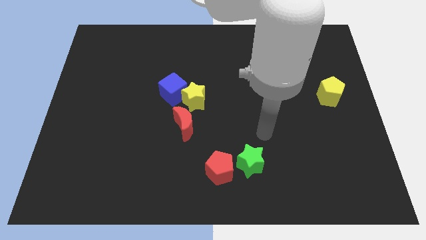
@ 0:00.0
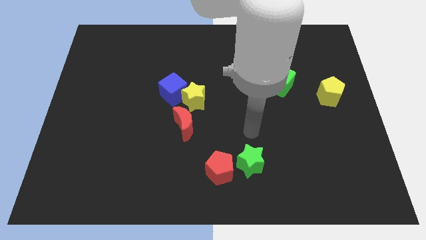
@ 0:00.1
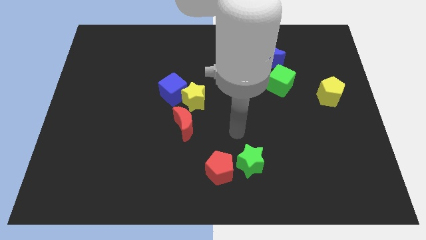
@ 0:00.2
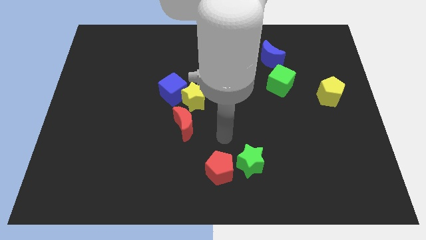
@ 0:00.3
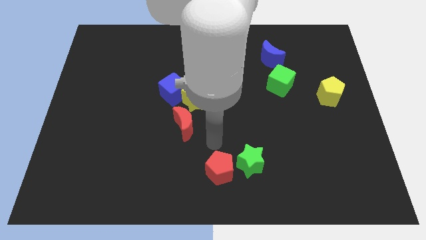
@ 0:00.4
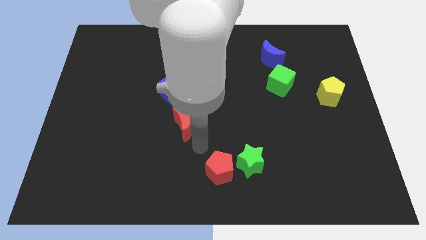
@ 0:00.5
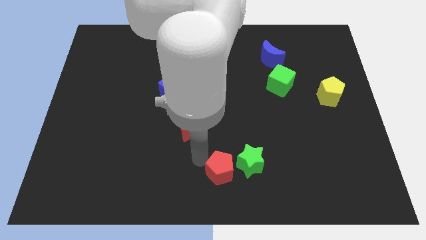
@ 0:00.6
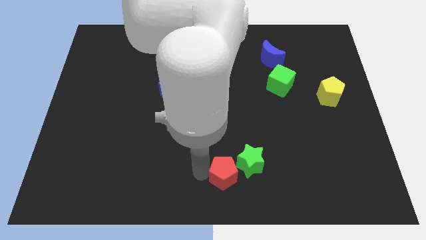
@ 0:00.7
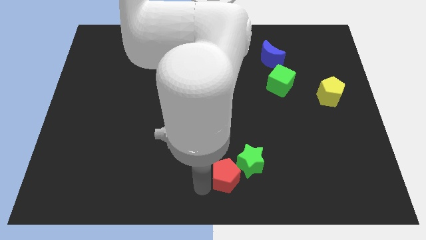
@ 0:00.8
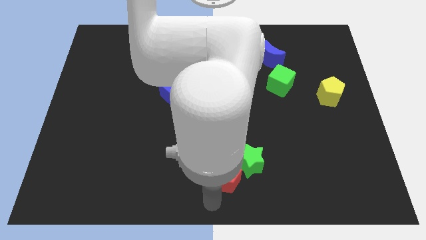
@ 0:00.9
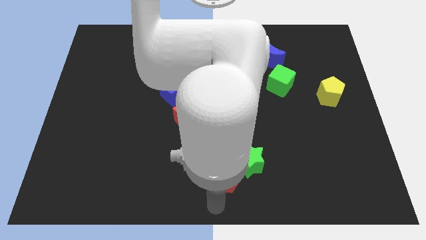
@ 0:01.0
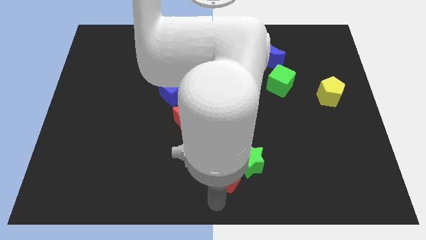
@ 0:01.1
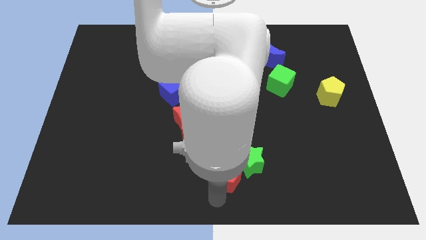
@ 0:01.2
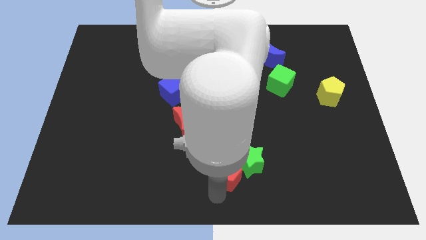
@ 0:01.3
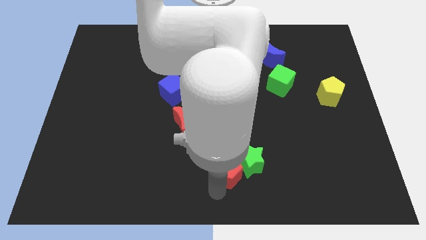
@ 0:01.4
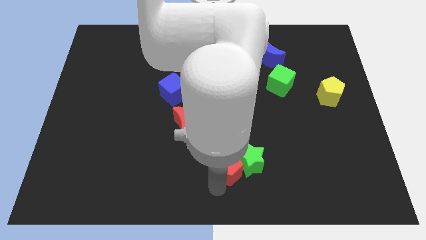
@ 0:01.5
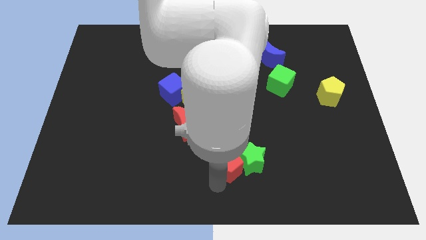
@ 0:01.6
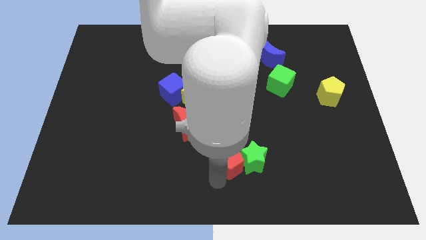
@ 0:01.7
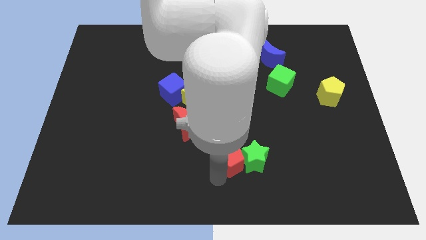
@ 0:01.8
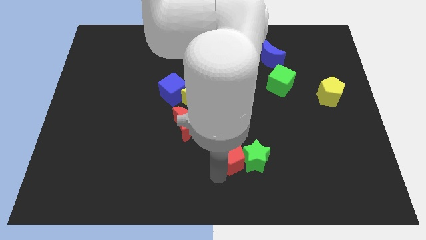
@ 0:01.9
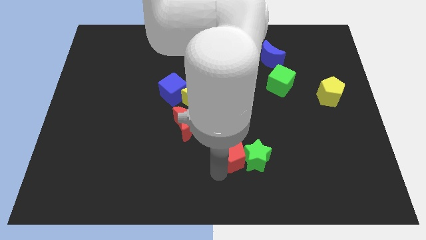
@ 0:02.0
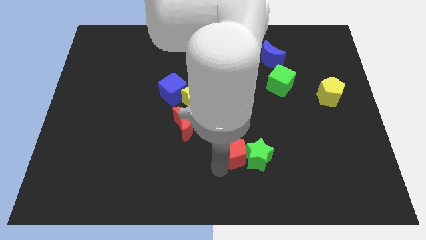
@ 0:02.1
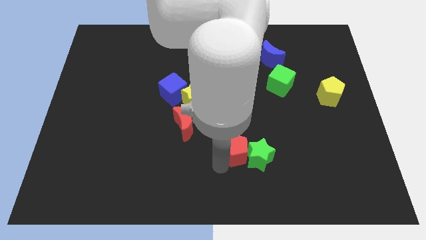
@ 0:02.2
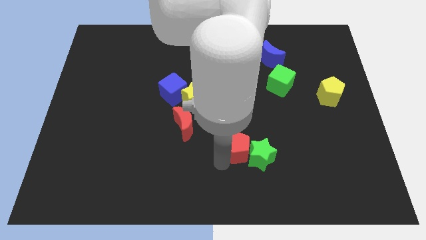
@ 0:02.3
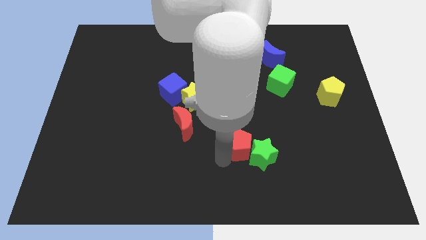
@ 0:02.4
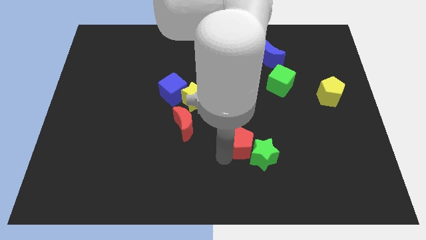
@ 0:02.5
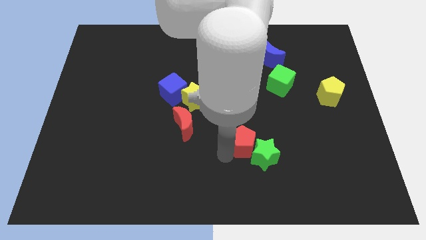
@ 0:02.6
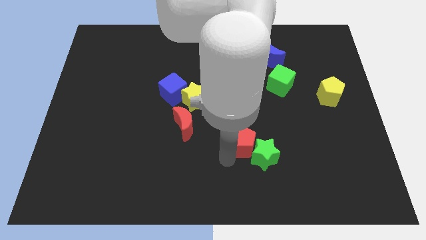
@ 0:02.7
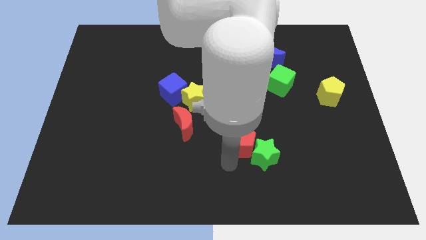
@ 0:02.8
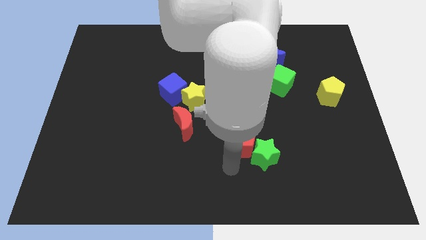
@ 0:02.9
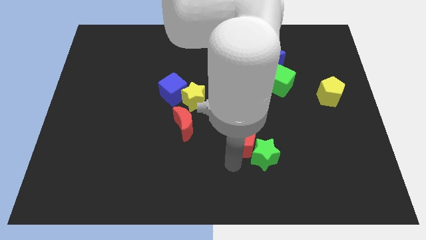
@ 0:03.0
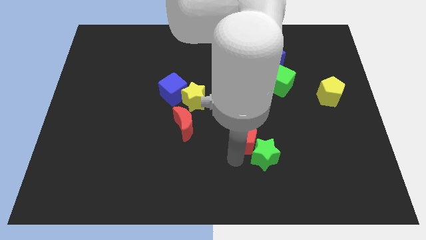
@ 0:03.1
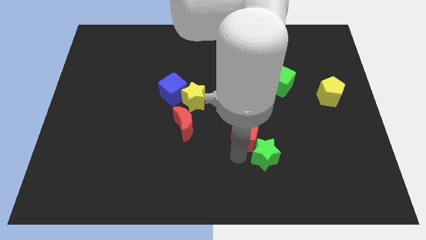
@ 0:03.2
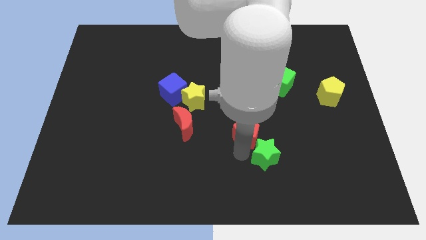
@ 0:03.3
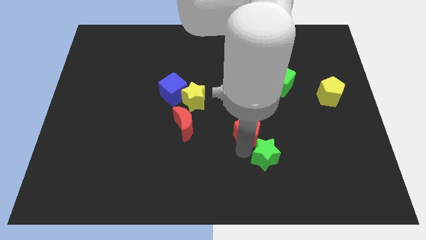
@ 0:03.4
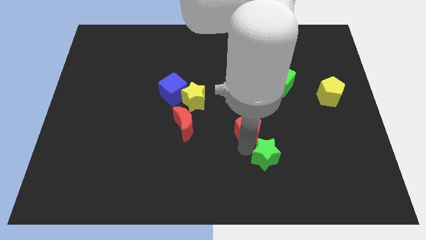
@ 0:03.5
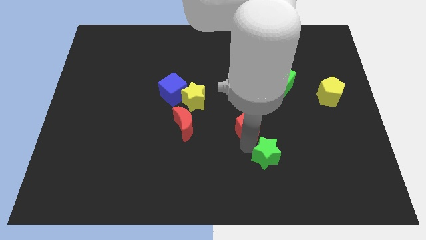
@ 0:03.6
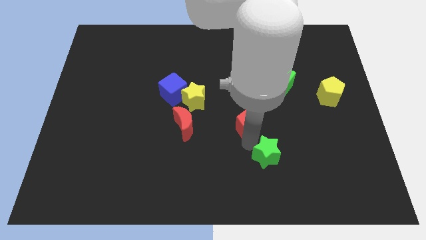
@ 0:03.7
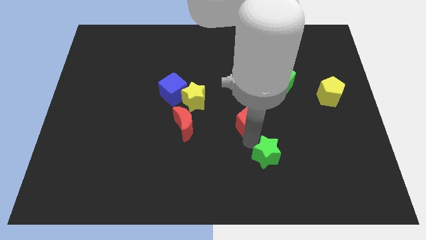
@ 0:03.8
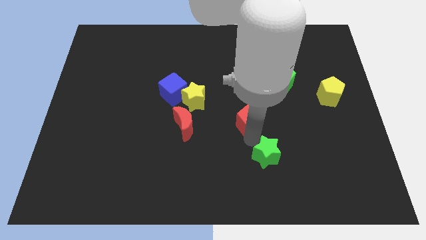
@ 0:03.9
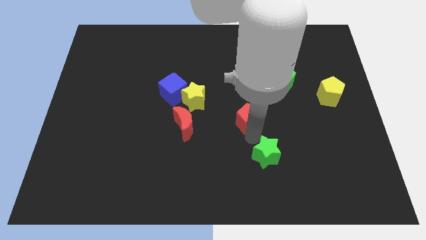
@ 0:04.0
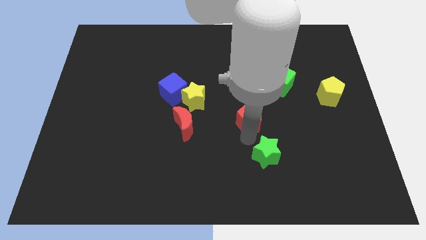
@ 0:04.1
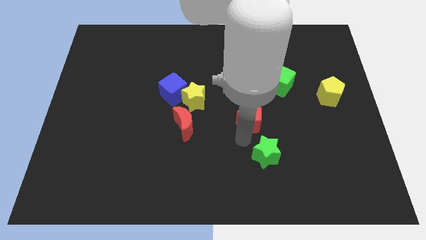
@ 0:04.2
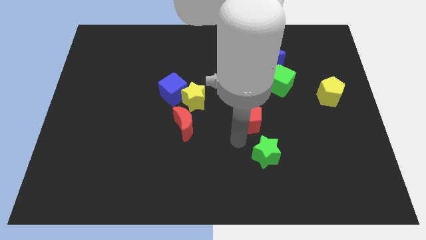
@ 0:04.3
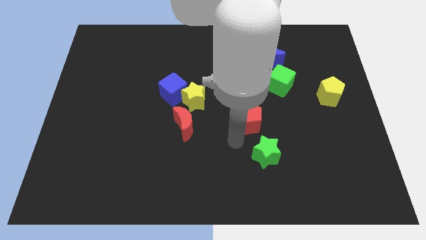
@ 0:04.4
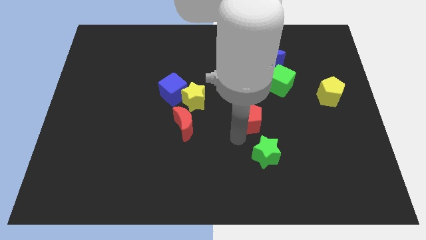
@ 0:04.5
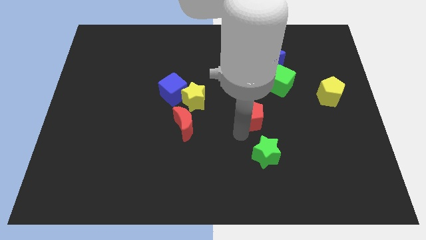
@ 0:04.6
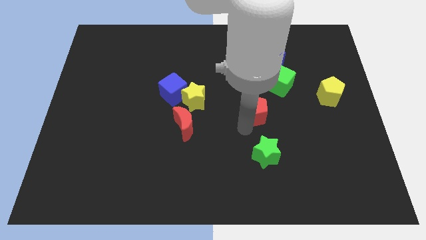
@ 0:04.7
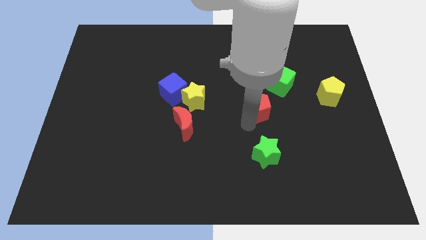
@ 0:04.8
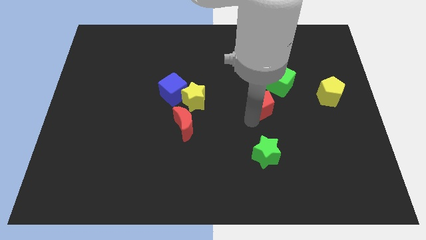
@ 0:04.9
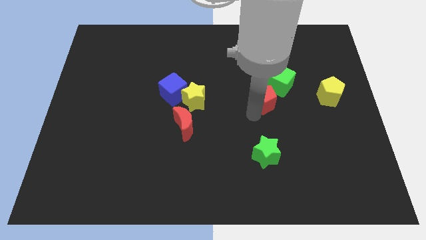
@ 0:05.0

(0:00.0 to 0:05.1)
put the red pentagon to the left of the yellow pentagon

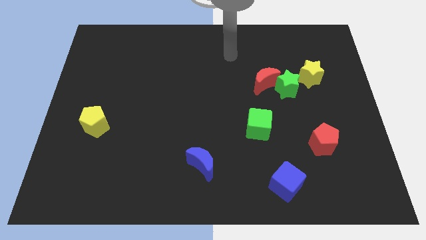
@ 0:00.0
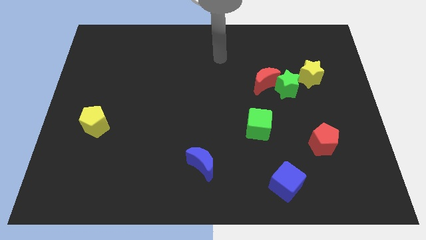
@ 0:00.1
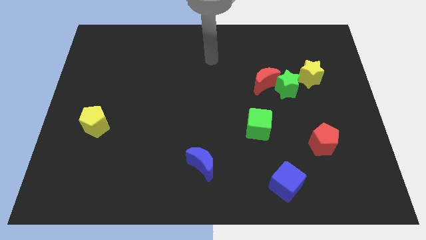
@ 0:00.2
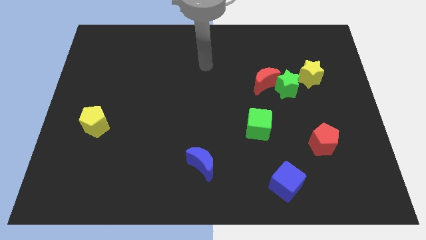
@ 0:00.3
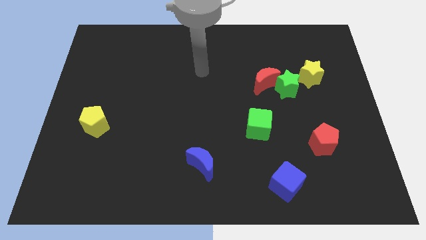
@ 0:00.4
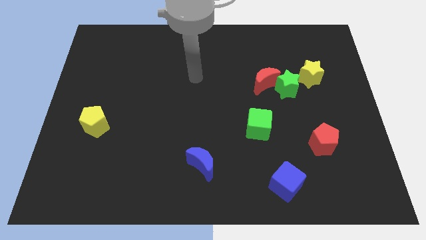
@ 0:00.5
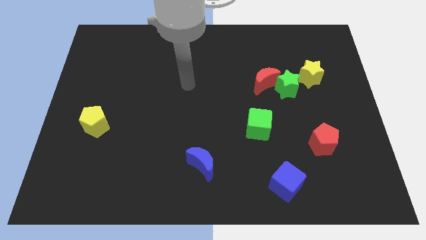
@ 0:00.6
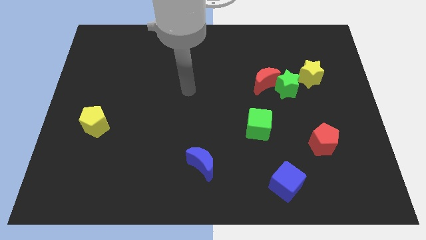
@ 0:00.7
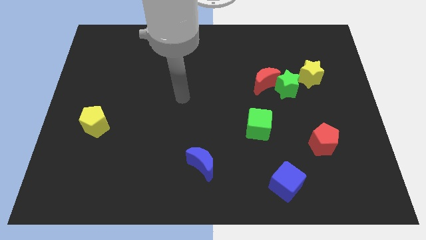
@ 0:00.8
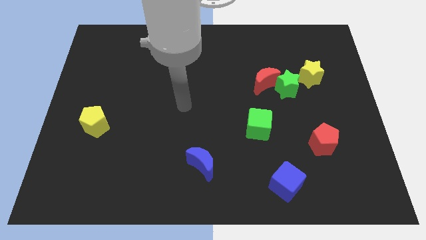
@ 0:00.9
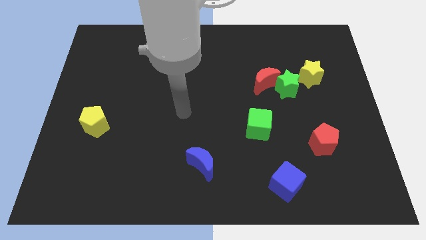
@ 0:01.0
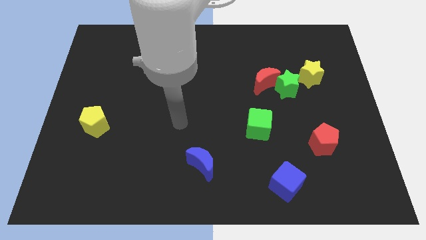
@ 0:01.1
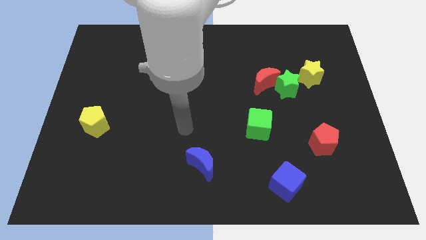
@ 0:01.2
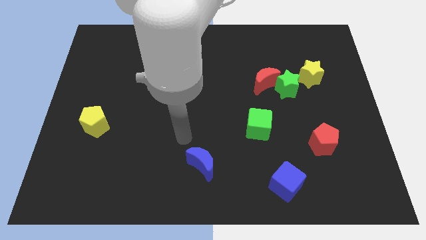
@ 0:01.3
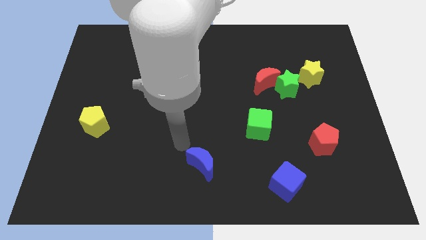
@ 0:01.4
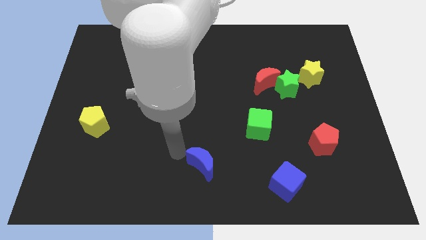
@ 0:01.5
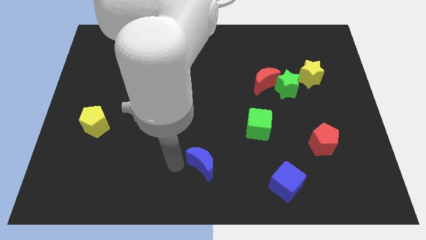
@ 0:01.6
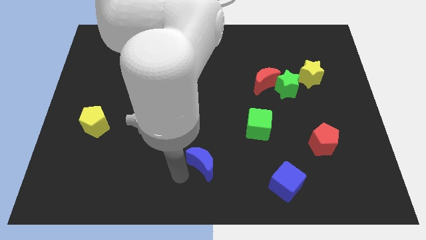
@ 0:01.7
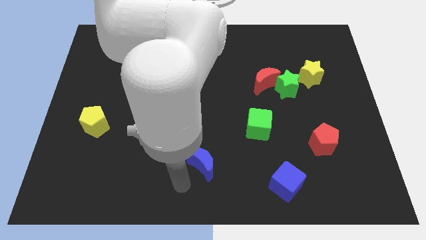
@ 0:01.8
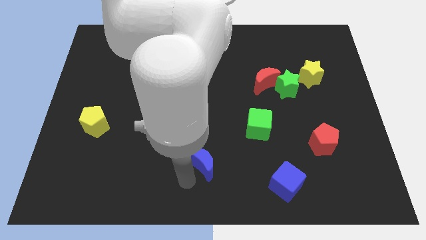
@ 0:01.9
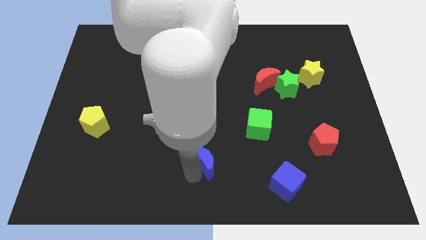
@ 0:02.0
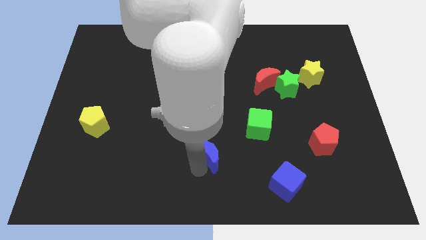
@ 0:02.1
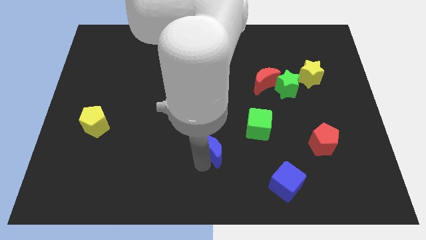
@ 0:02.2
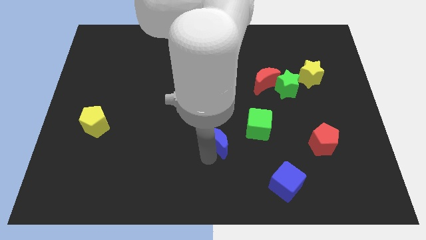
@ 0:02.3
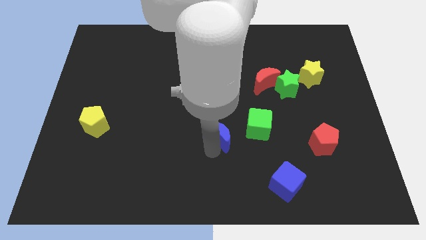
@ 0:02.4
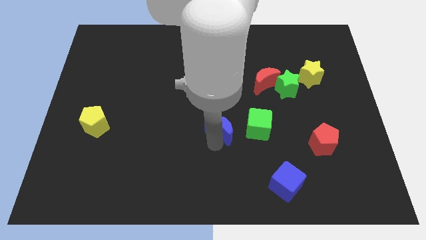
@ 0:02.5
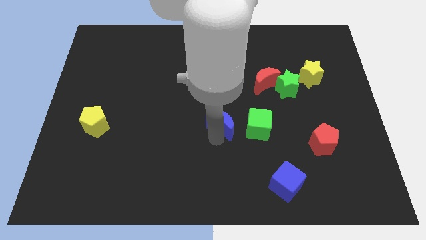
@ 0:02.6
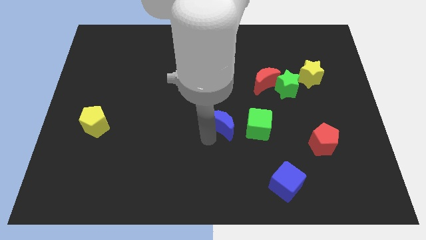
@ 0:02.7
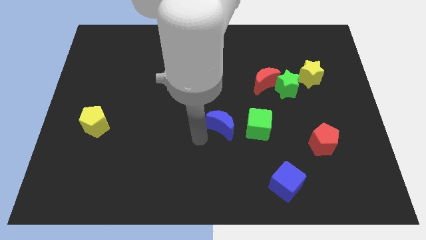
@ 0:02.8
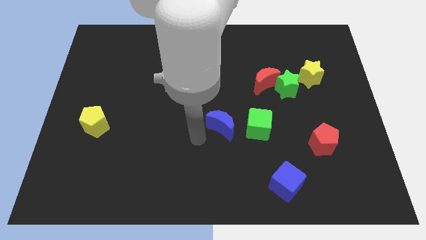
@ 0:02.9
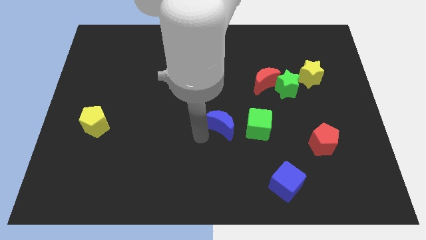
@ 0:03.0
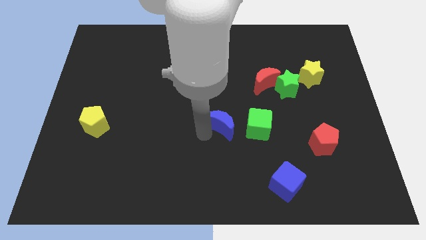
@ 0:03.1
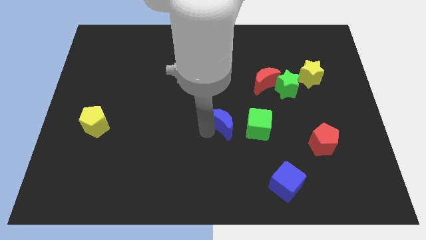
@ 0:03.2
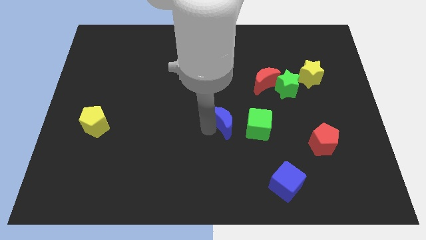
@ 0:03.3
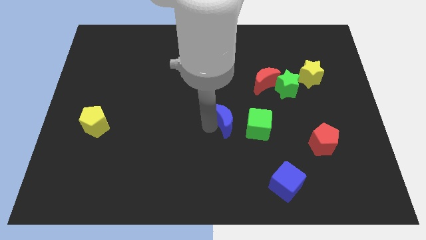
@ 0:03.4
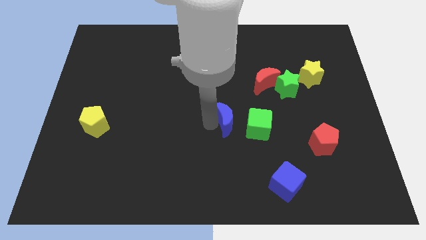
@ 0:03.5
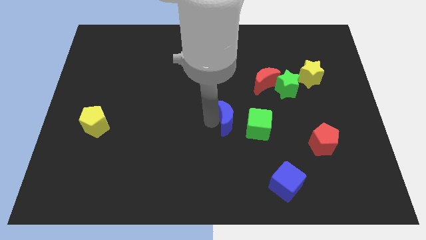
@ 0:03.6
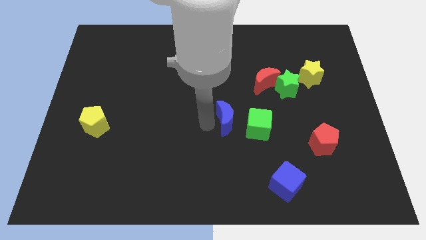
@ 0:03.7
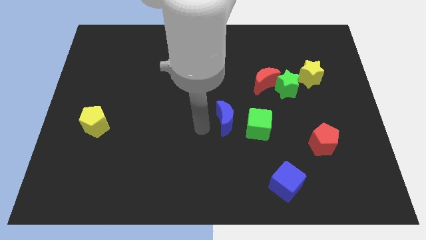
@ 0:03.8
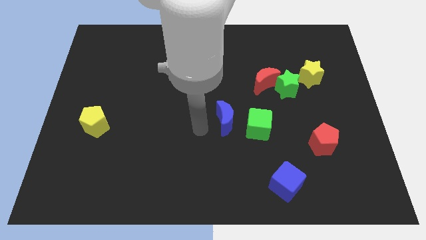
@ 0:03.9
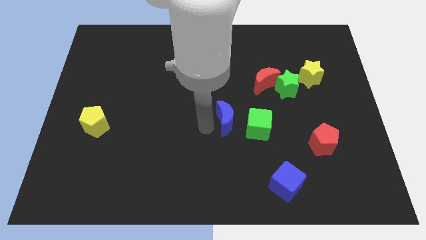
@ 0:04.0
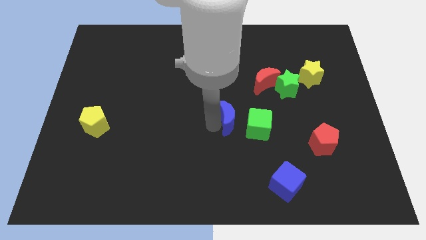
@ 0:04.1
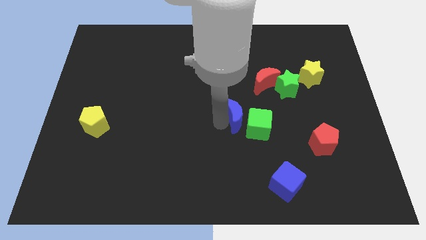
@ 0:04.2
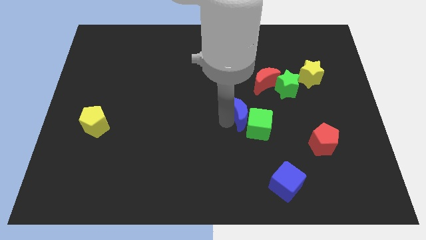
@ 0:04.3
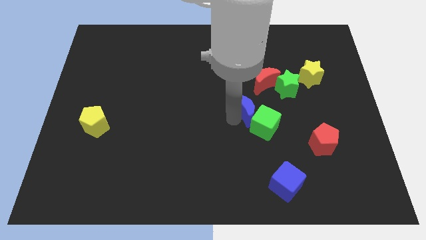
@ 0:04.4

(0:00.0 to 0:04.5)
slide the blue moon to the bottom left of the green star
